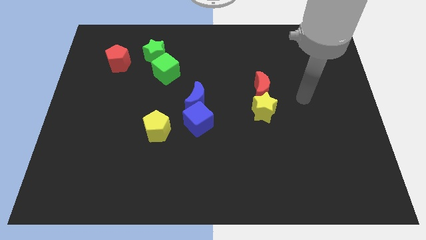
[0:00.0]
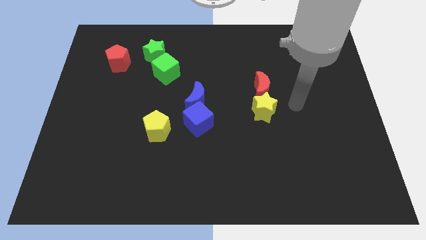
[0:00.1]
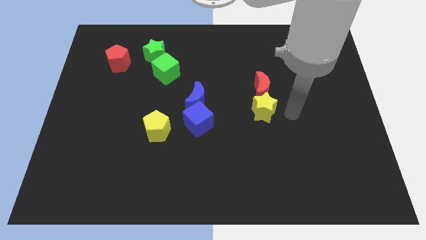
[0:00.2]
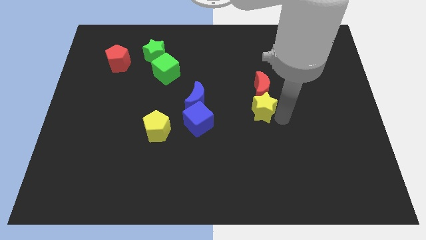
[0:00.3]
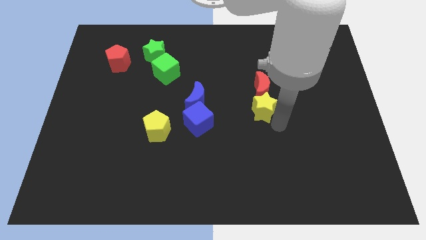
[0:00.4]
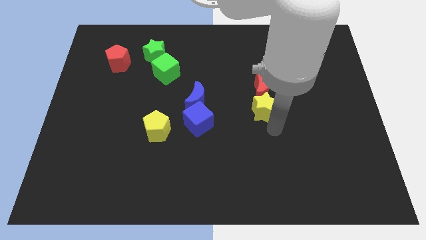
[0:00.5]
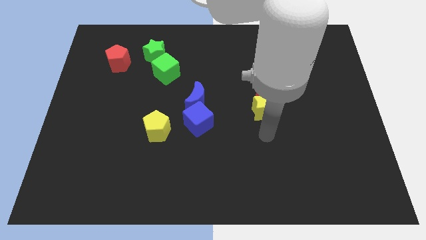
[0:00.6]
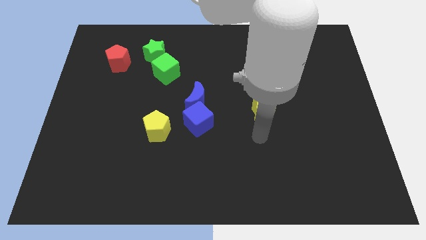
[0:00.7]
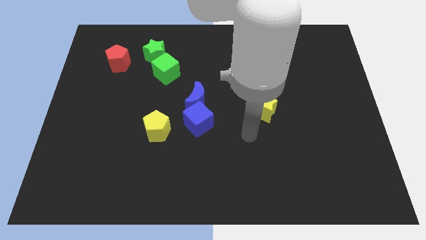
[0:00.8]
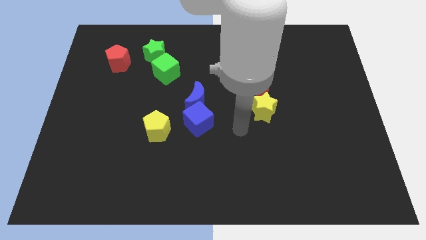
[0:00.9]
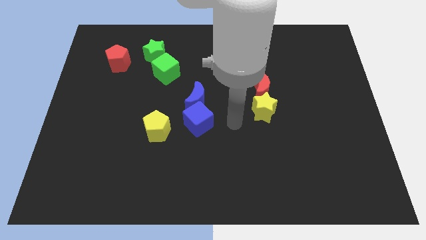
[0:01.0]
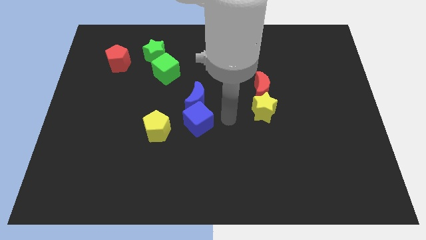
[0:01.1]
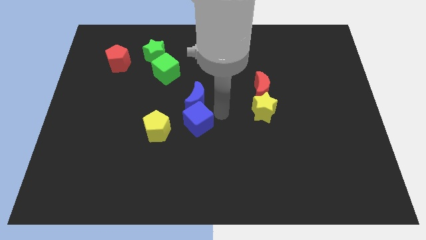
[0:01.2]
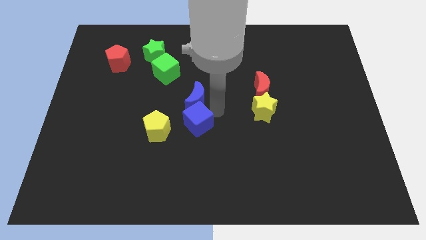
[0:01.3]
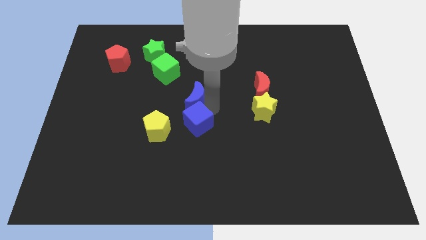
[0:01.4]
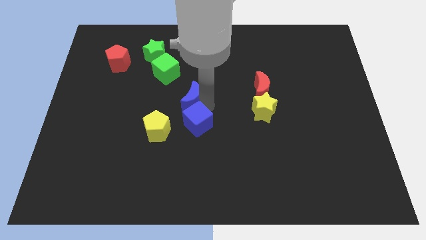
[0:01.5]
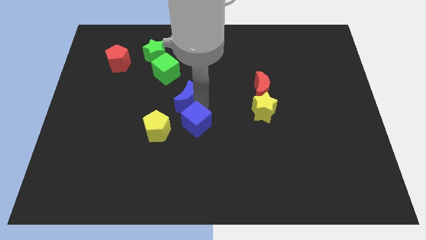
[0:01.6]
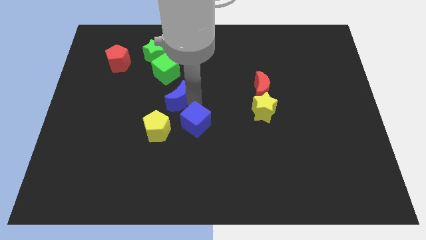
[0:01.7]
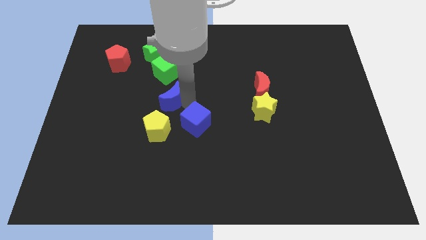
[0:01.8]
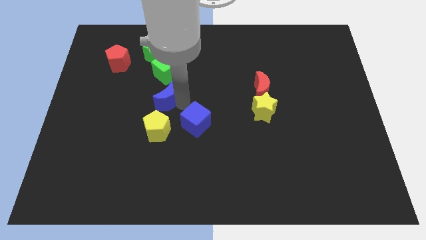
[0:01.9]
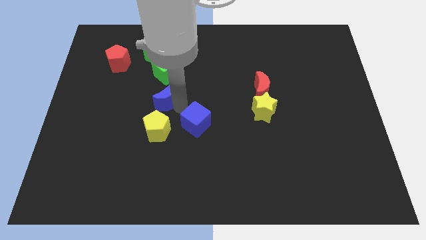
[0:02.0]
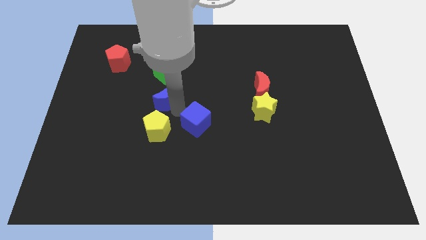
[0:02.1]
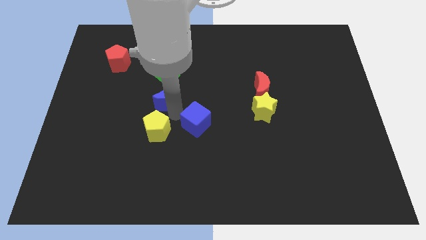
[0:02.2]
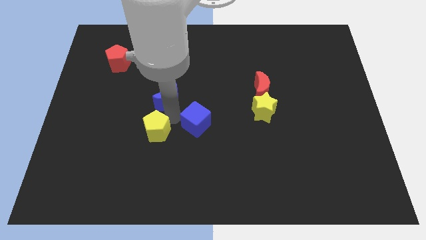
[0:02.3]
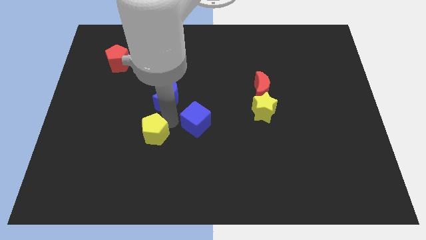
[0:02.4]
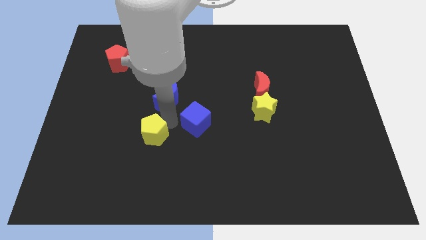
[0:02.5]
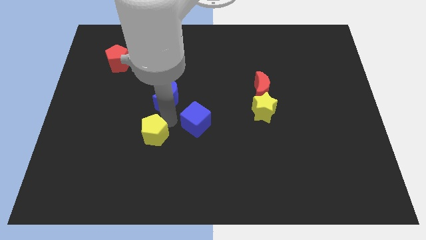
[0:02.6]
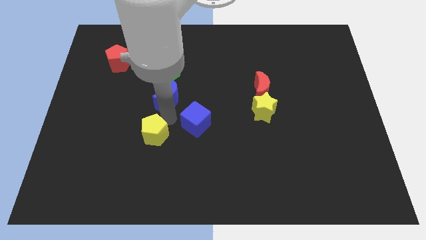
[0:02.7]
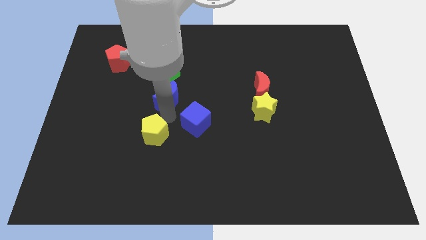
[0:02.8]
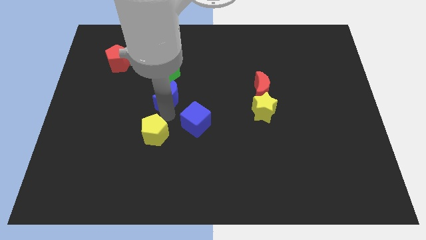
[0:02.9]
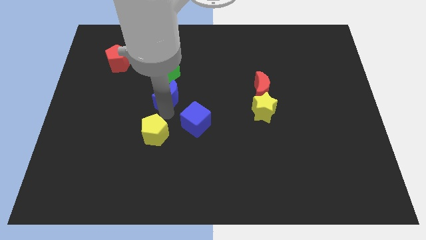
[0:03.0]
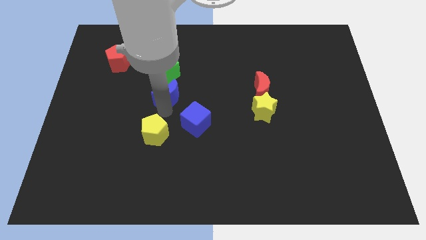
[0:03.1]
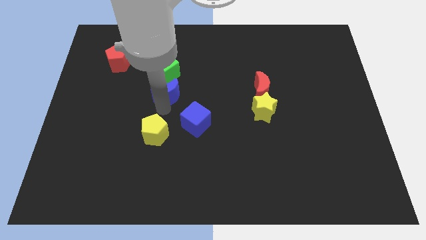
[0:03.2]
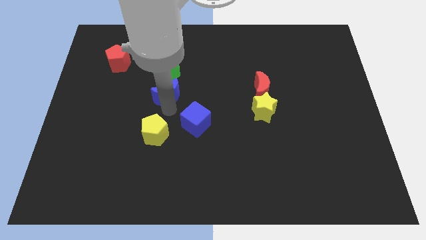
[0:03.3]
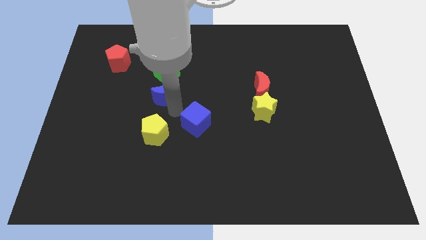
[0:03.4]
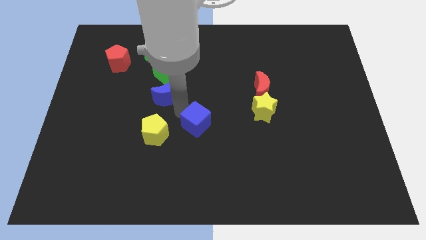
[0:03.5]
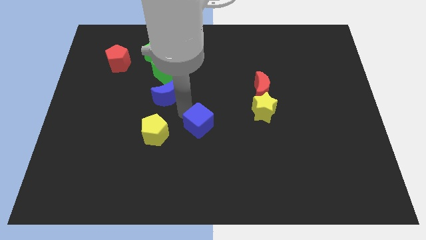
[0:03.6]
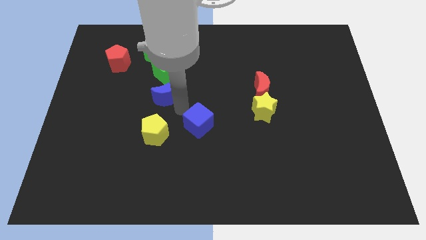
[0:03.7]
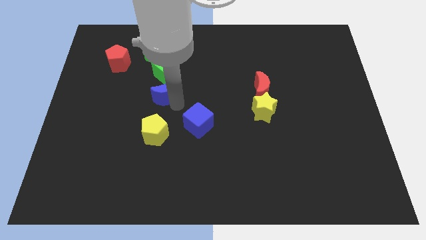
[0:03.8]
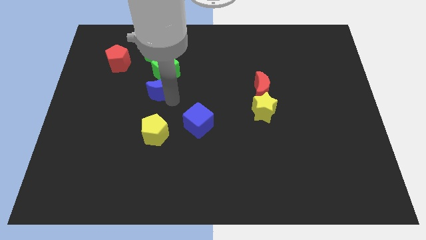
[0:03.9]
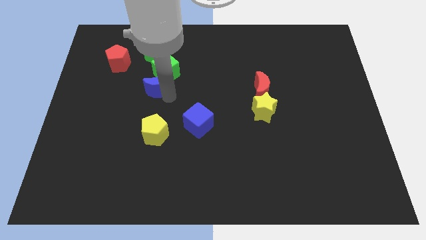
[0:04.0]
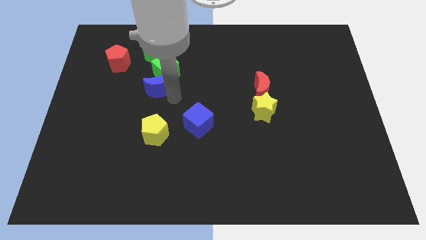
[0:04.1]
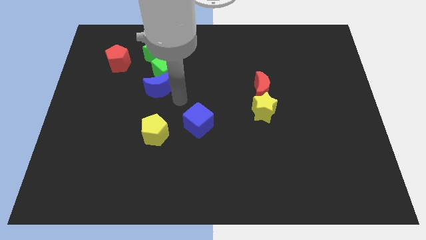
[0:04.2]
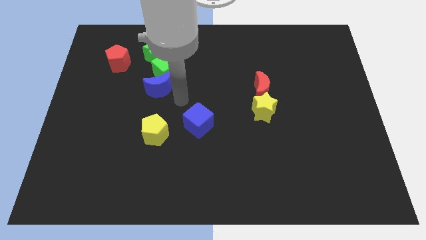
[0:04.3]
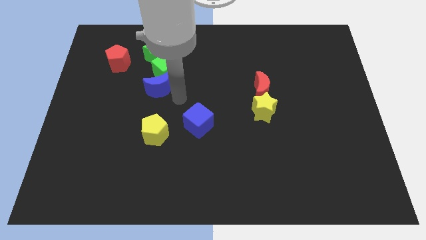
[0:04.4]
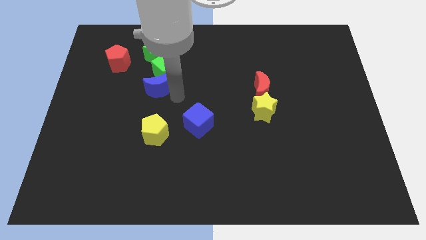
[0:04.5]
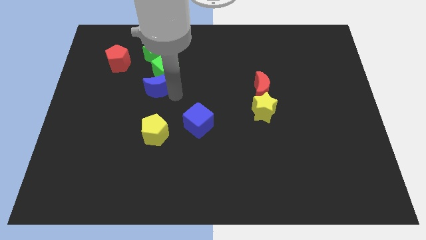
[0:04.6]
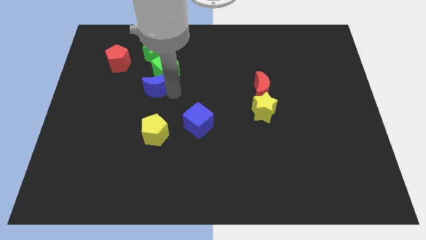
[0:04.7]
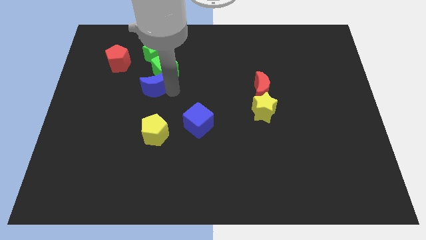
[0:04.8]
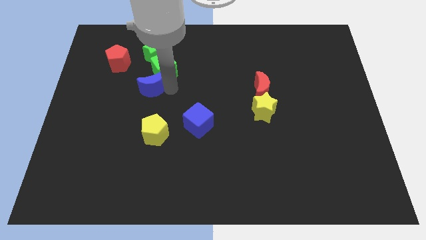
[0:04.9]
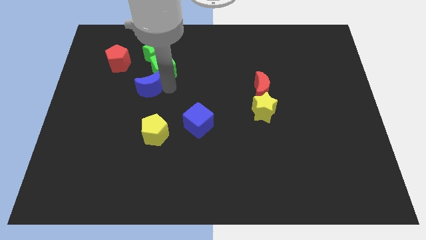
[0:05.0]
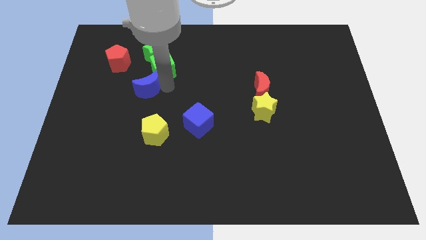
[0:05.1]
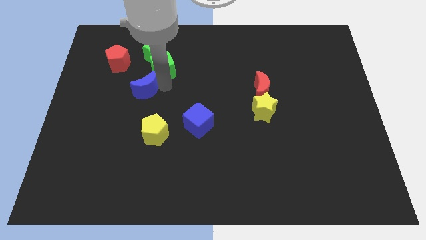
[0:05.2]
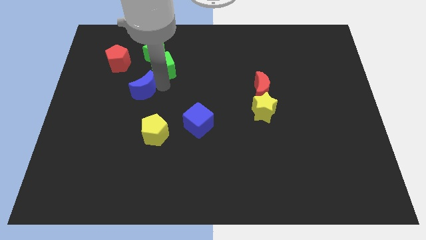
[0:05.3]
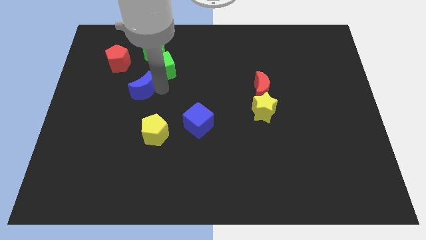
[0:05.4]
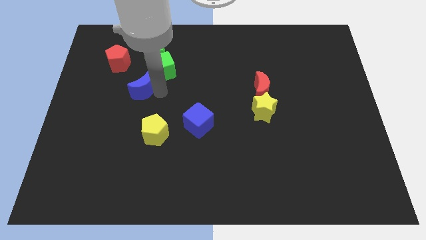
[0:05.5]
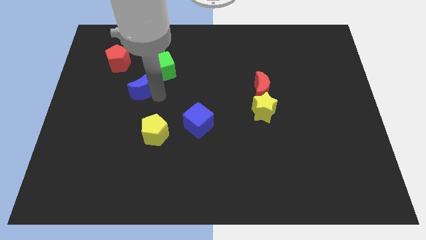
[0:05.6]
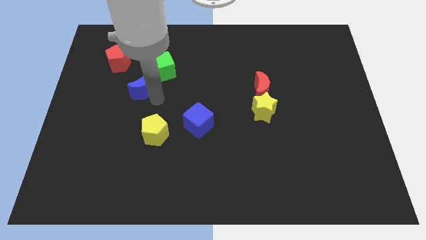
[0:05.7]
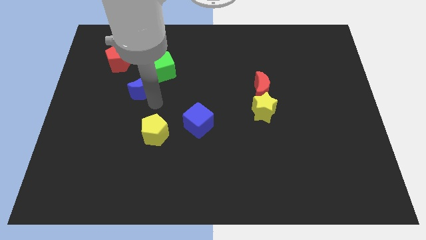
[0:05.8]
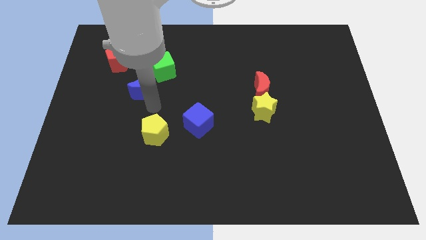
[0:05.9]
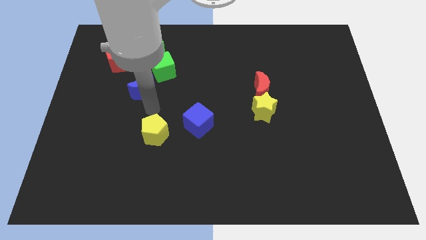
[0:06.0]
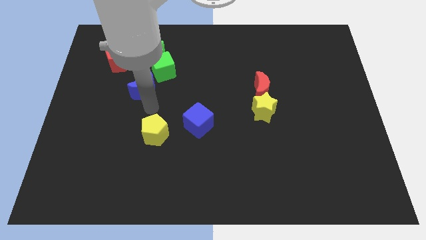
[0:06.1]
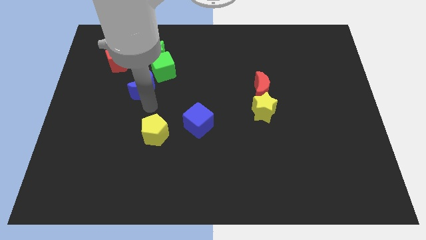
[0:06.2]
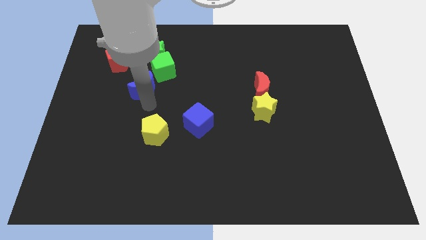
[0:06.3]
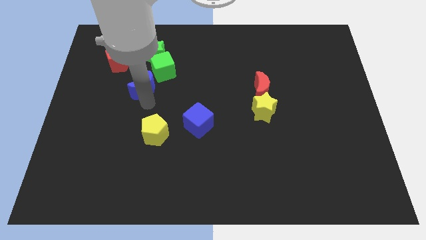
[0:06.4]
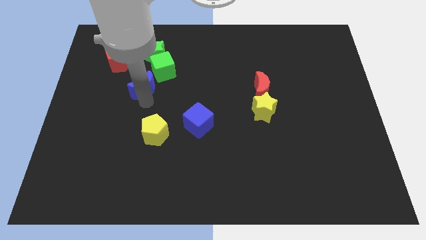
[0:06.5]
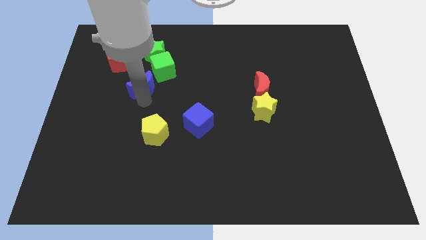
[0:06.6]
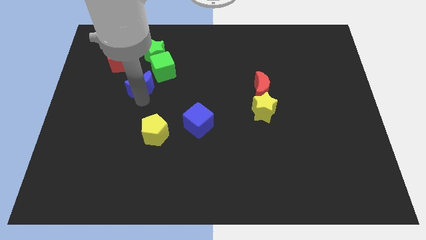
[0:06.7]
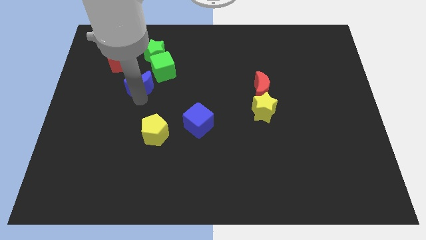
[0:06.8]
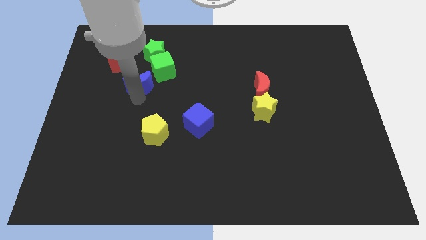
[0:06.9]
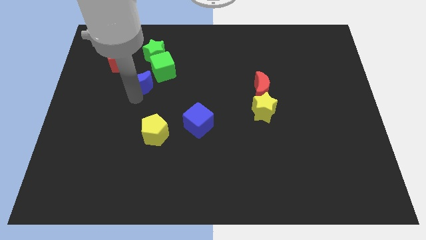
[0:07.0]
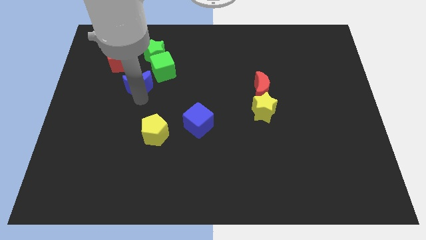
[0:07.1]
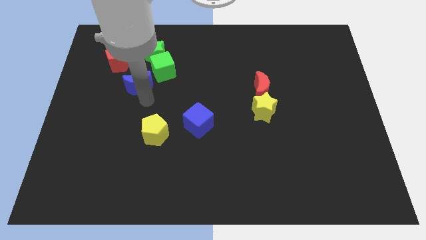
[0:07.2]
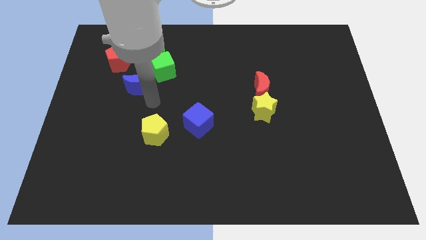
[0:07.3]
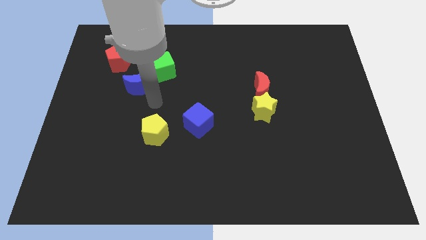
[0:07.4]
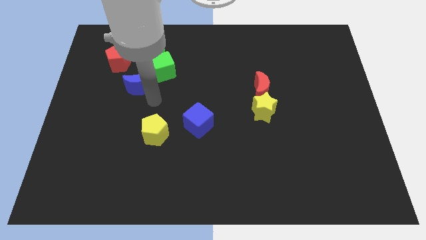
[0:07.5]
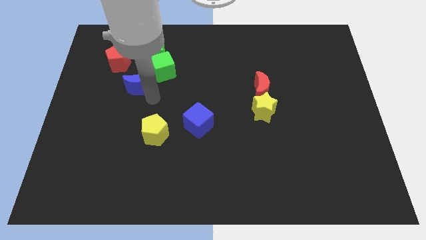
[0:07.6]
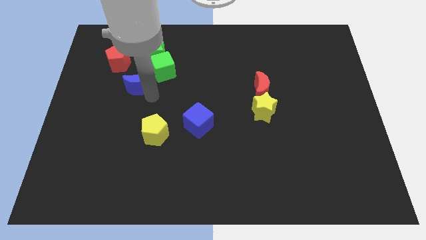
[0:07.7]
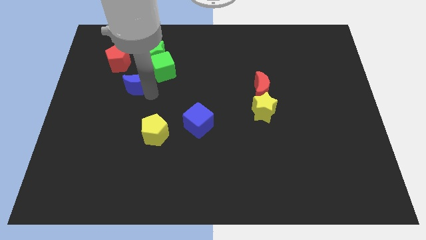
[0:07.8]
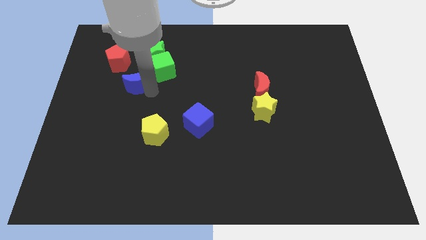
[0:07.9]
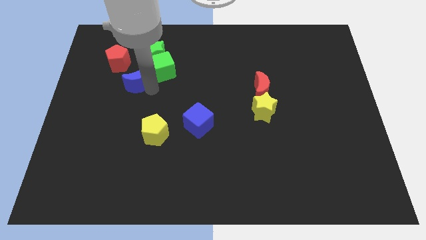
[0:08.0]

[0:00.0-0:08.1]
slide the blue moon just left of the green cube
